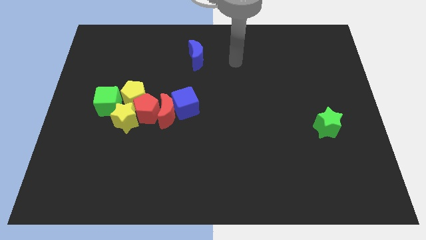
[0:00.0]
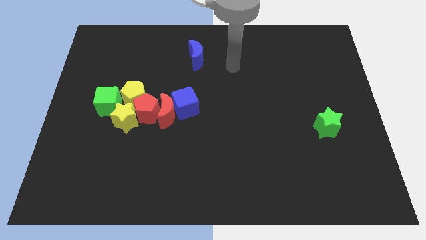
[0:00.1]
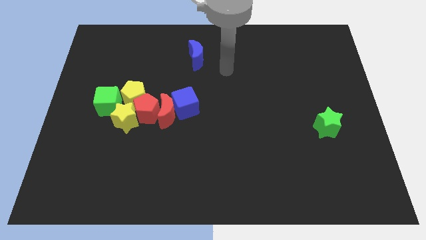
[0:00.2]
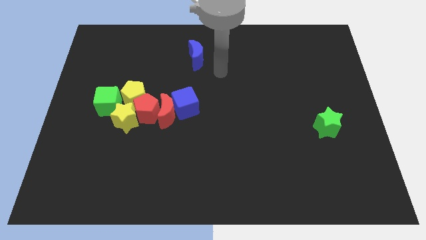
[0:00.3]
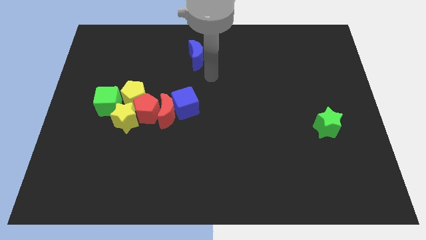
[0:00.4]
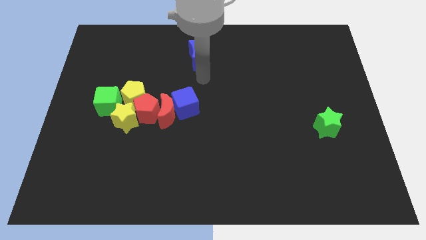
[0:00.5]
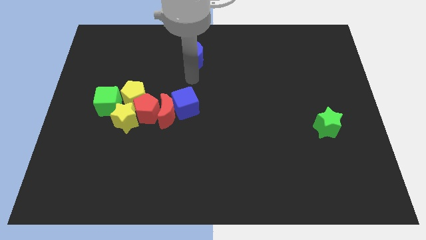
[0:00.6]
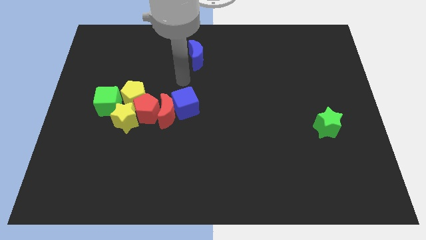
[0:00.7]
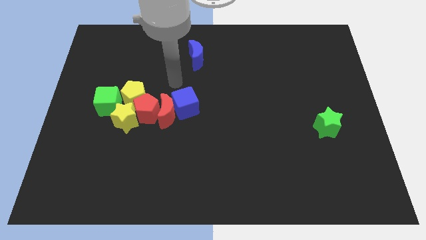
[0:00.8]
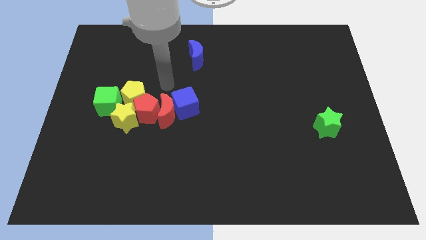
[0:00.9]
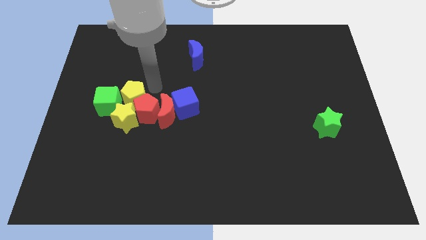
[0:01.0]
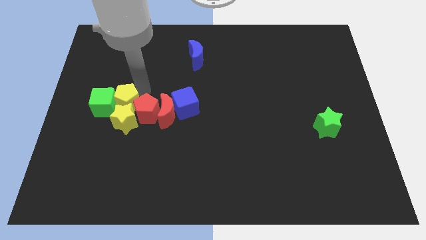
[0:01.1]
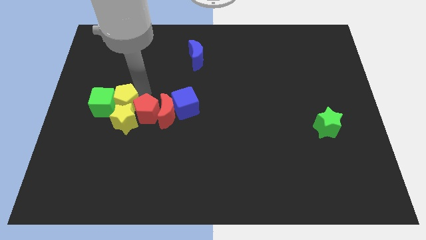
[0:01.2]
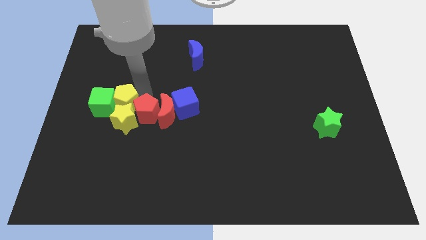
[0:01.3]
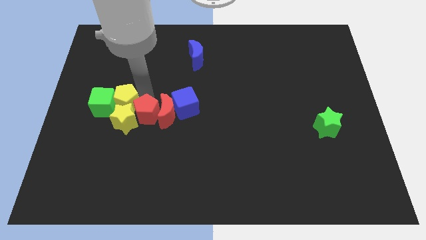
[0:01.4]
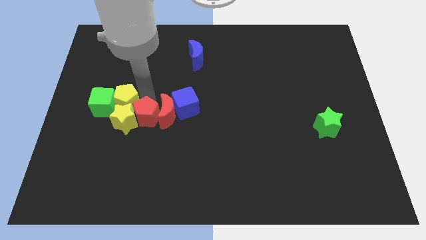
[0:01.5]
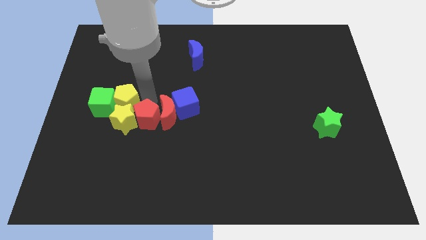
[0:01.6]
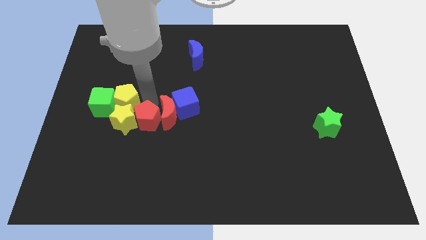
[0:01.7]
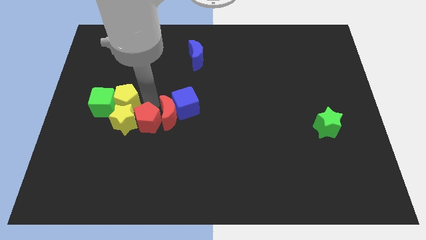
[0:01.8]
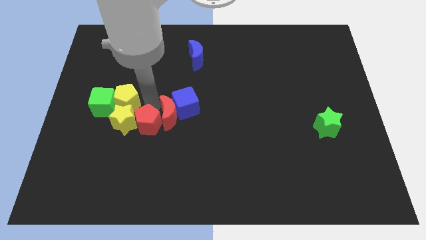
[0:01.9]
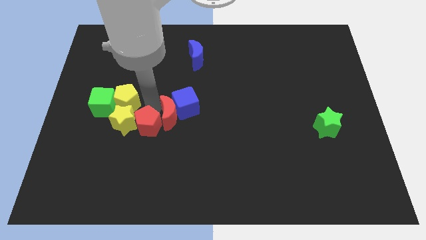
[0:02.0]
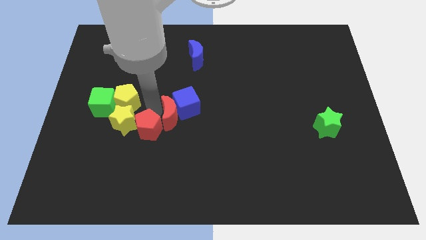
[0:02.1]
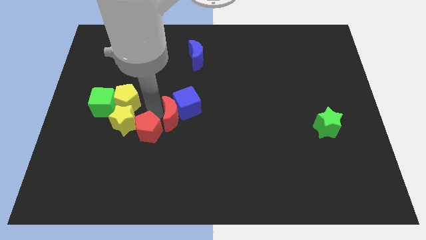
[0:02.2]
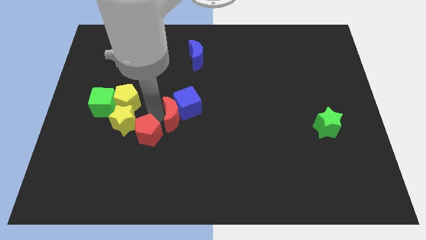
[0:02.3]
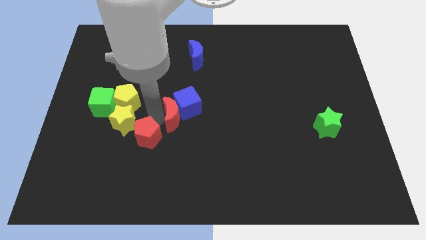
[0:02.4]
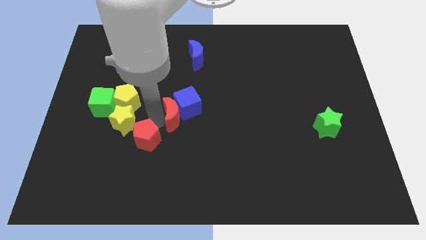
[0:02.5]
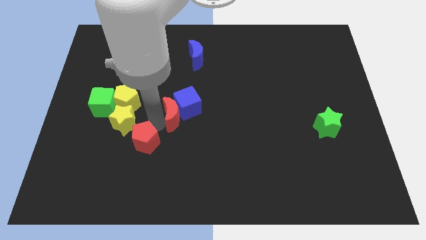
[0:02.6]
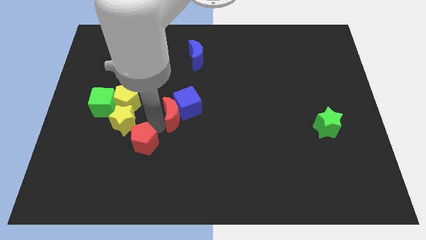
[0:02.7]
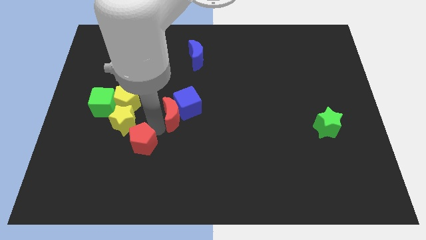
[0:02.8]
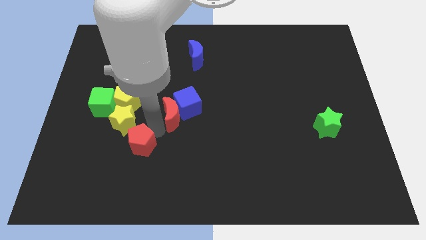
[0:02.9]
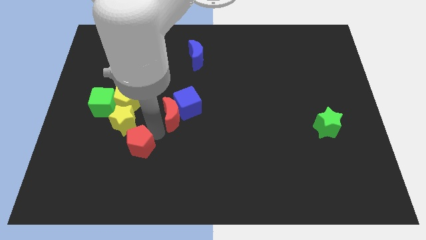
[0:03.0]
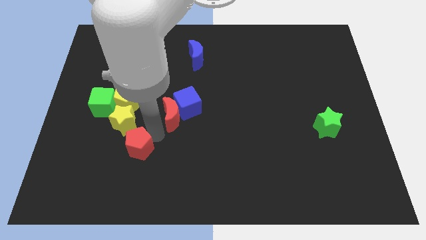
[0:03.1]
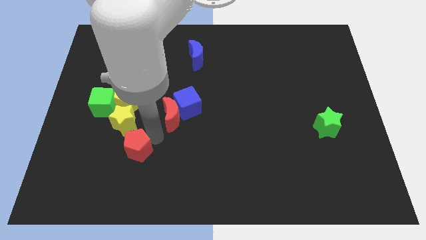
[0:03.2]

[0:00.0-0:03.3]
pull the red pentagon apart from the group of blocks

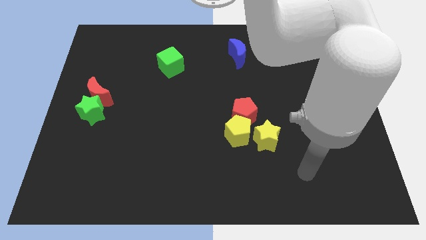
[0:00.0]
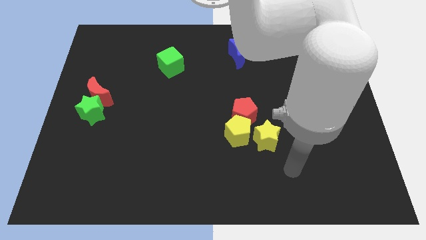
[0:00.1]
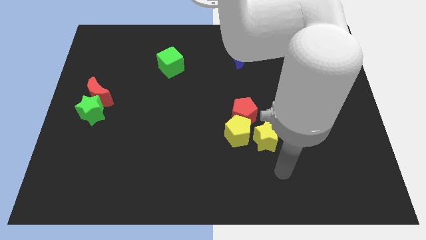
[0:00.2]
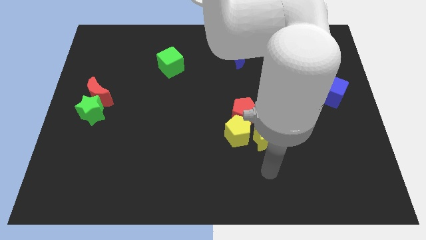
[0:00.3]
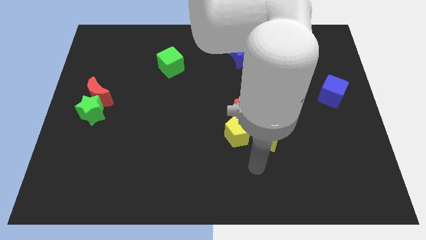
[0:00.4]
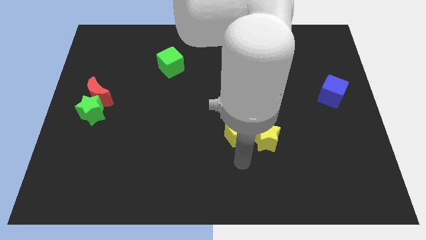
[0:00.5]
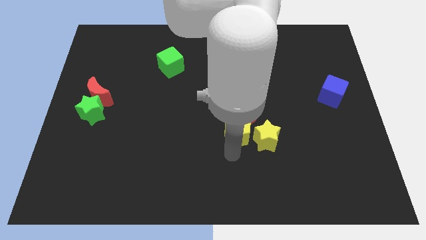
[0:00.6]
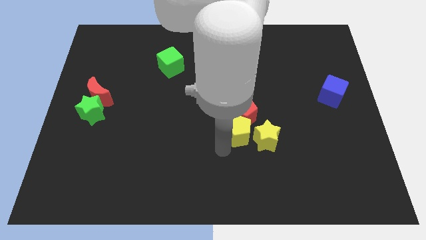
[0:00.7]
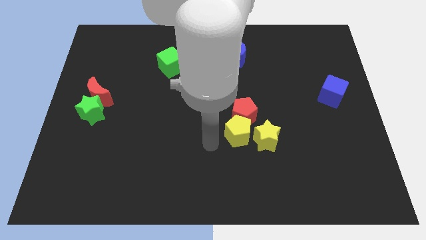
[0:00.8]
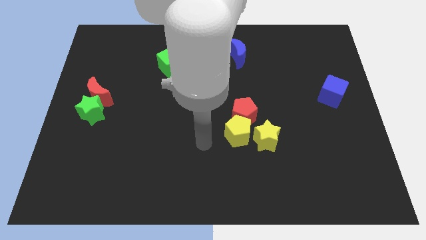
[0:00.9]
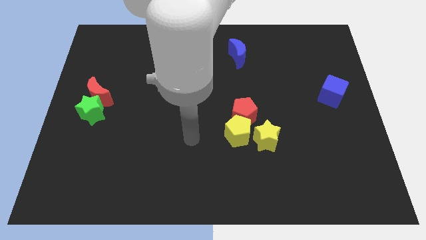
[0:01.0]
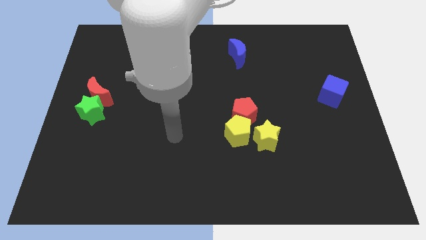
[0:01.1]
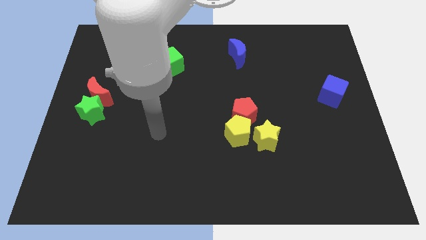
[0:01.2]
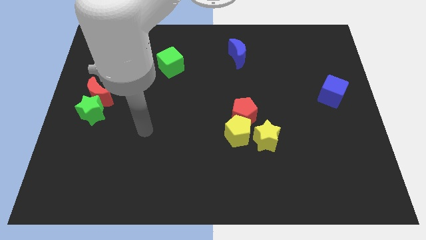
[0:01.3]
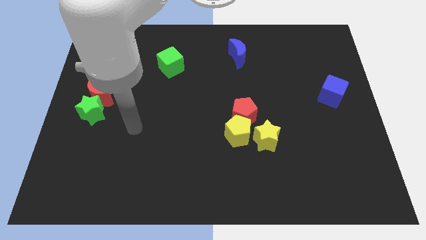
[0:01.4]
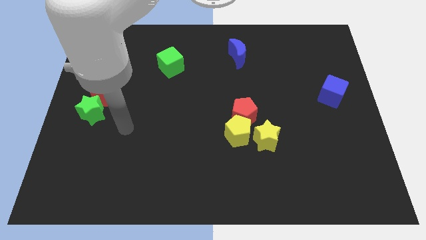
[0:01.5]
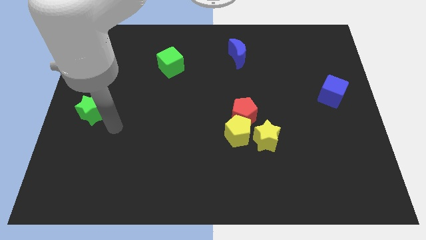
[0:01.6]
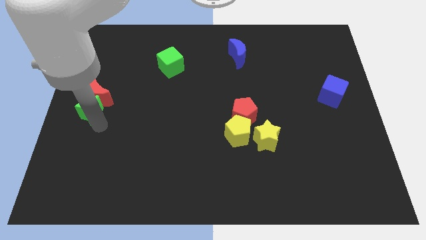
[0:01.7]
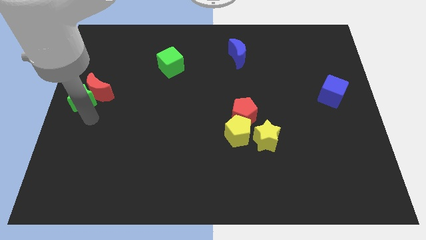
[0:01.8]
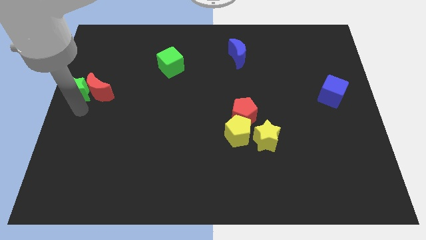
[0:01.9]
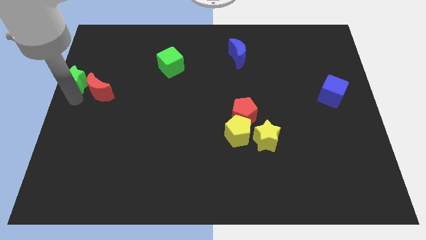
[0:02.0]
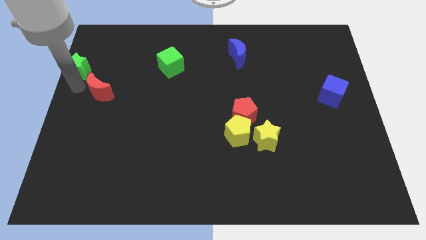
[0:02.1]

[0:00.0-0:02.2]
pull the red moon apart from the green star

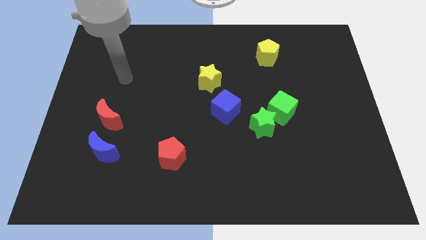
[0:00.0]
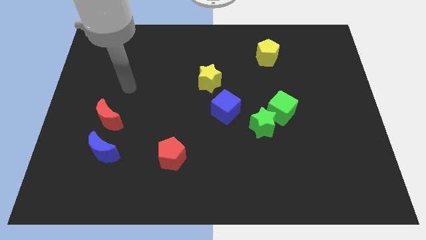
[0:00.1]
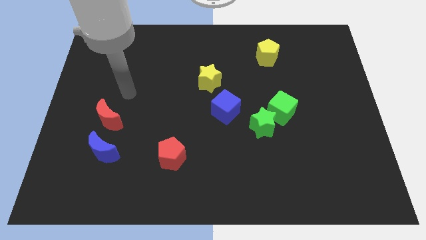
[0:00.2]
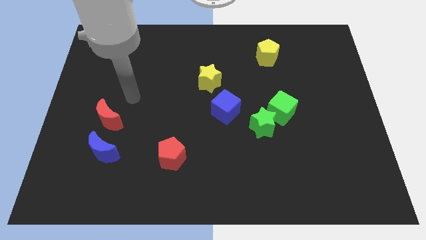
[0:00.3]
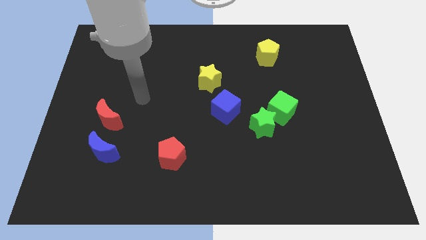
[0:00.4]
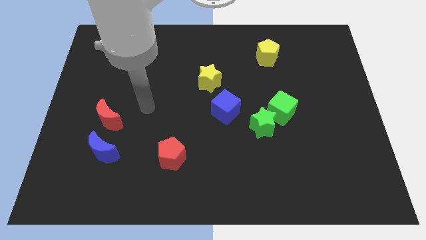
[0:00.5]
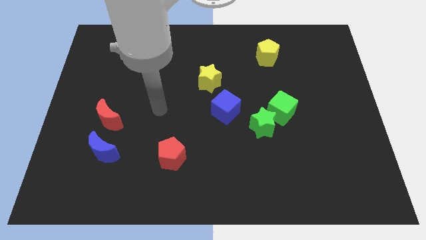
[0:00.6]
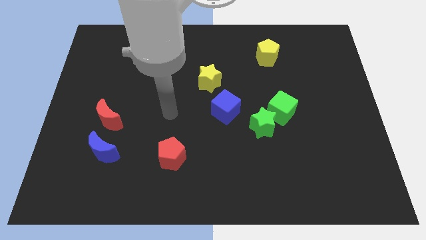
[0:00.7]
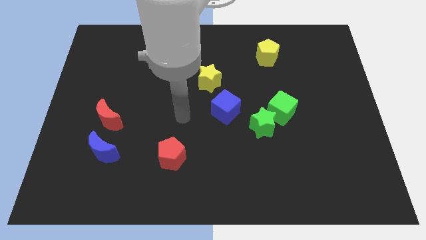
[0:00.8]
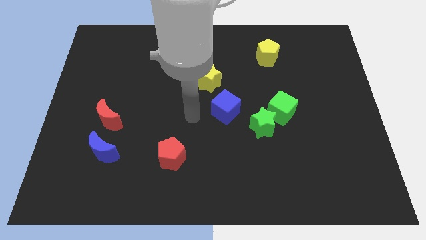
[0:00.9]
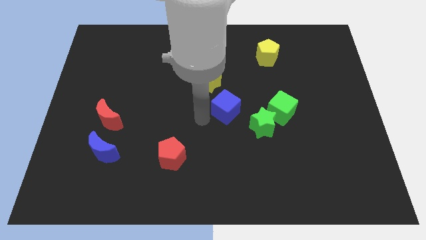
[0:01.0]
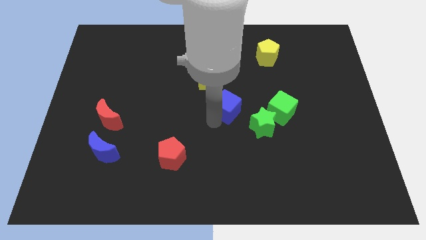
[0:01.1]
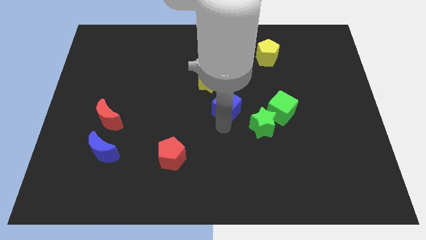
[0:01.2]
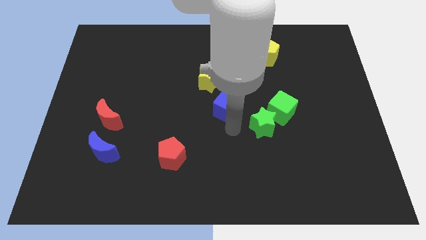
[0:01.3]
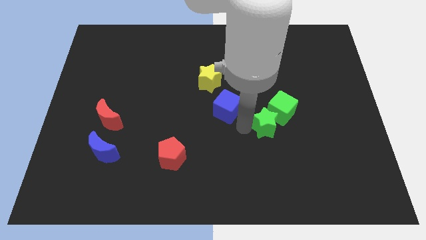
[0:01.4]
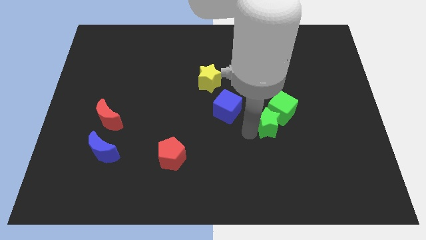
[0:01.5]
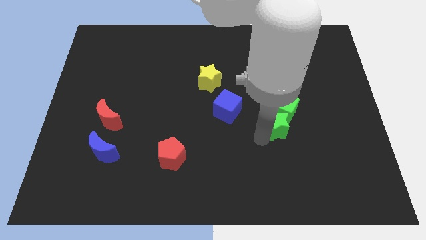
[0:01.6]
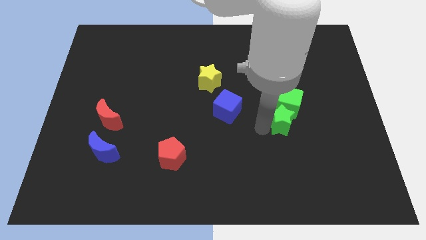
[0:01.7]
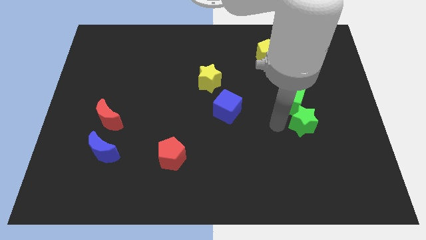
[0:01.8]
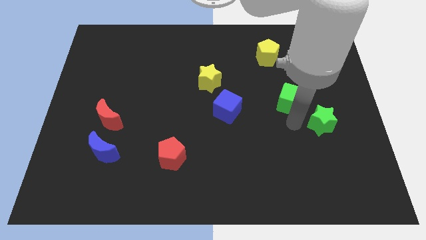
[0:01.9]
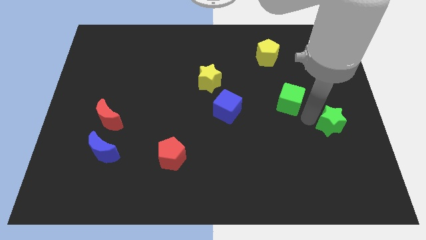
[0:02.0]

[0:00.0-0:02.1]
separate the green cube from the green star

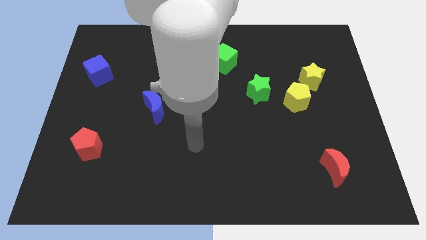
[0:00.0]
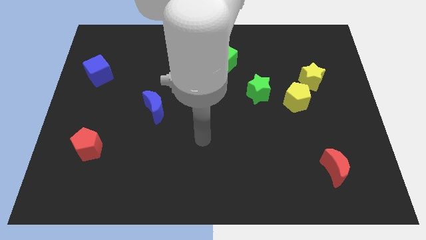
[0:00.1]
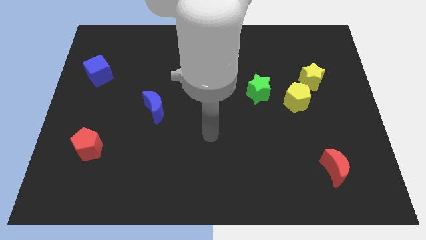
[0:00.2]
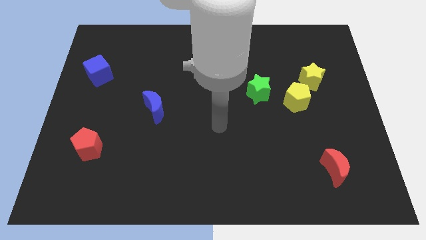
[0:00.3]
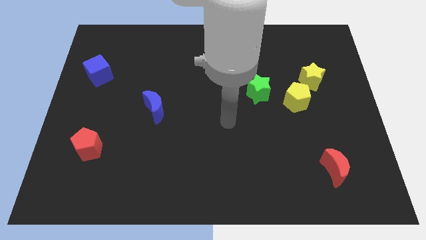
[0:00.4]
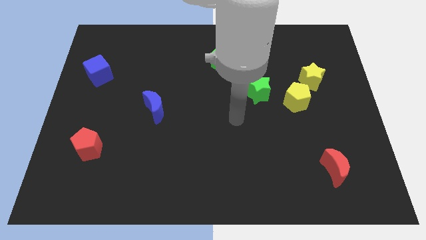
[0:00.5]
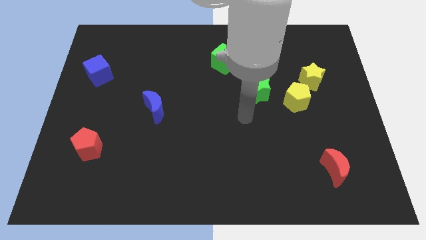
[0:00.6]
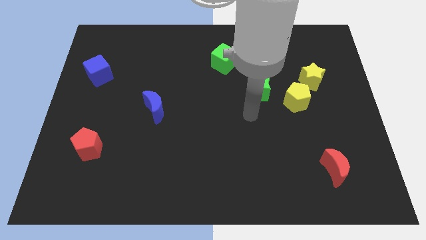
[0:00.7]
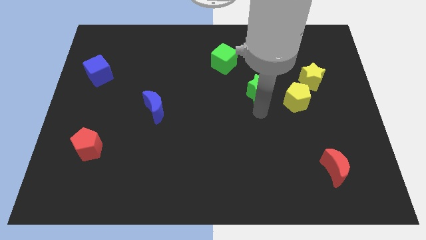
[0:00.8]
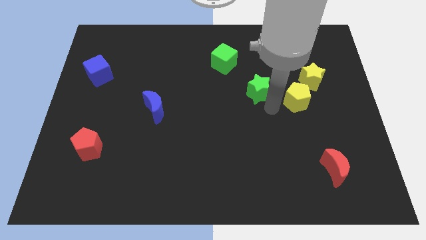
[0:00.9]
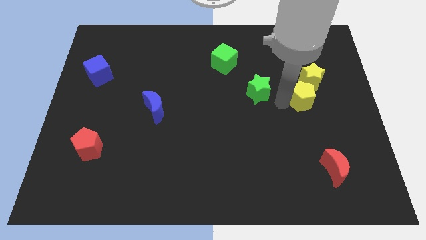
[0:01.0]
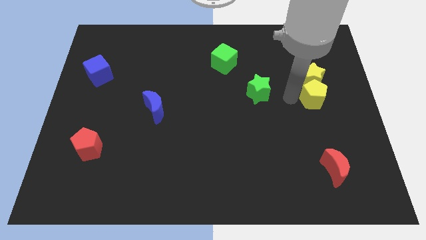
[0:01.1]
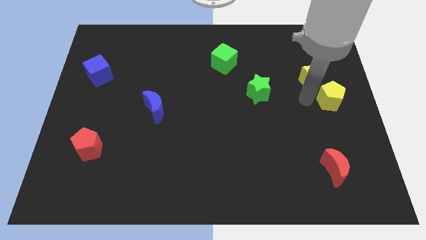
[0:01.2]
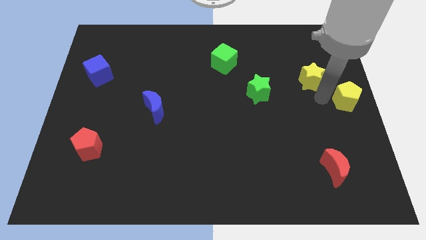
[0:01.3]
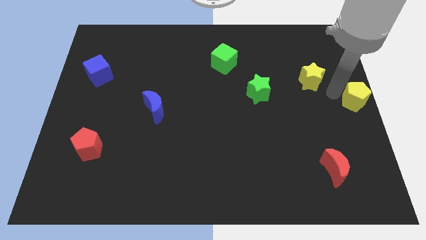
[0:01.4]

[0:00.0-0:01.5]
separate the yellow star from the yellow pentagon

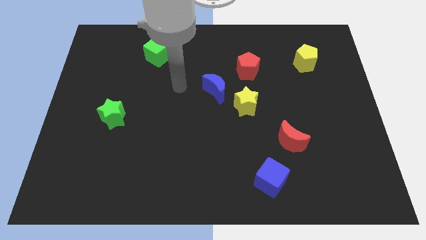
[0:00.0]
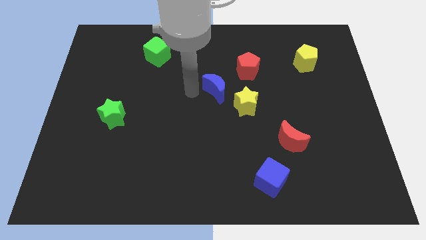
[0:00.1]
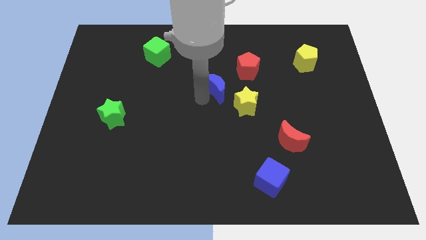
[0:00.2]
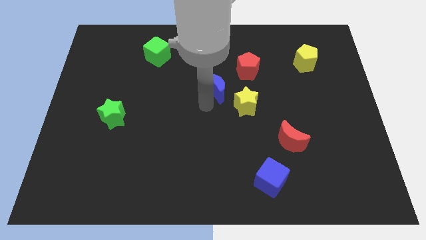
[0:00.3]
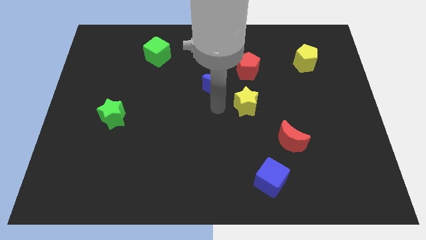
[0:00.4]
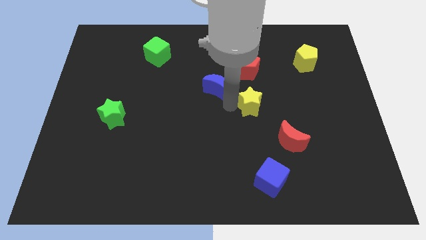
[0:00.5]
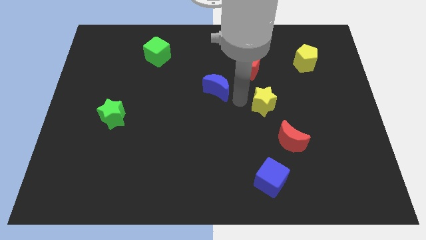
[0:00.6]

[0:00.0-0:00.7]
separate the blue moon from the yellow star
